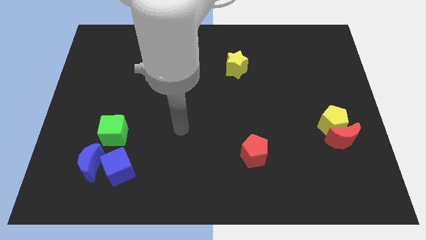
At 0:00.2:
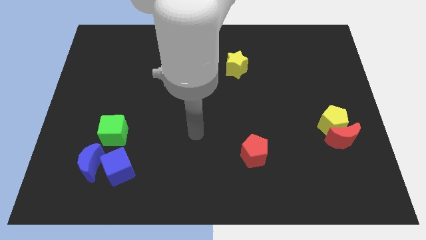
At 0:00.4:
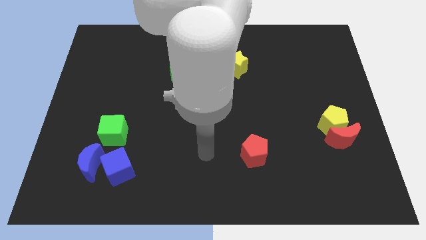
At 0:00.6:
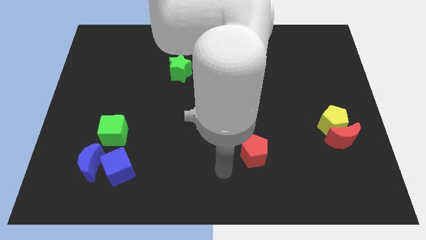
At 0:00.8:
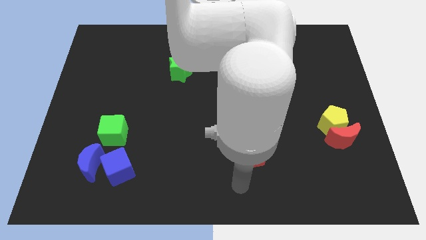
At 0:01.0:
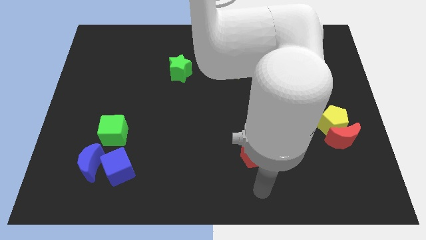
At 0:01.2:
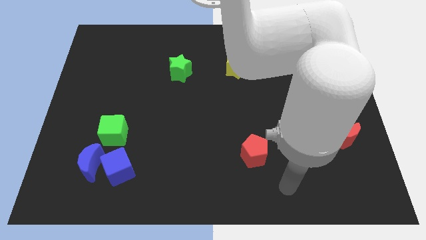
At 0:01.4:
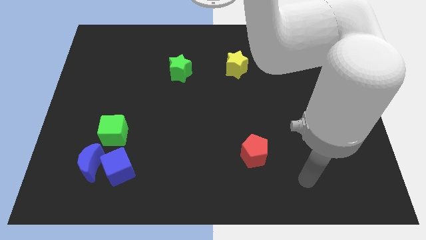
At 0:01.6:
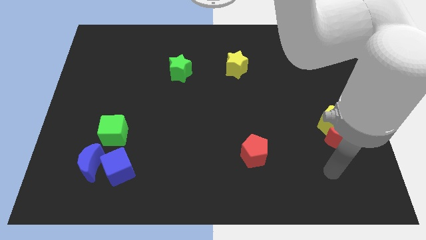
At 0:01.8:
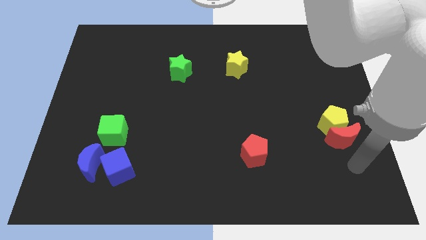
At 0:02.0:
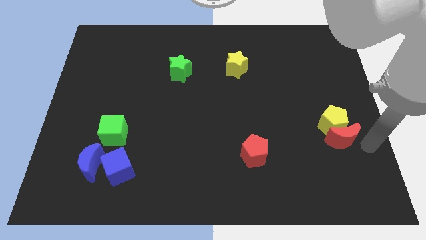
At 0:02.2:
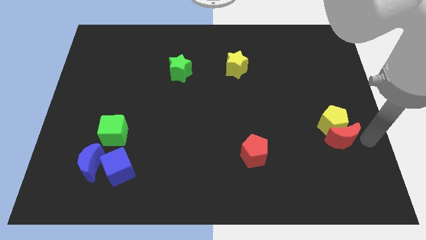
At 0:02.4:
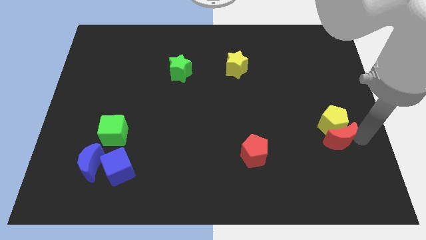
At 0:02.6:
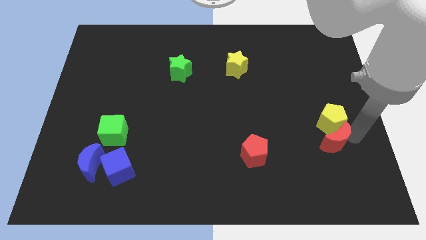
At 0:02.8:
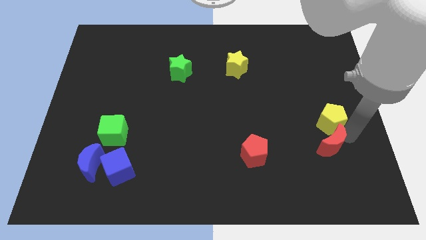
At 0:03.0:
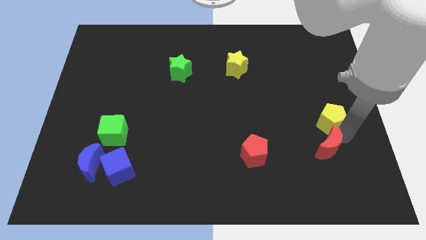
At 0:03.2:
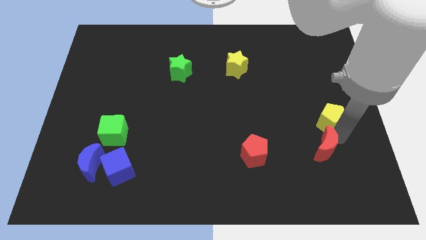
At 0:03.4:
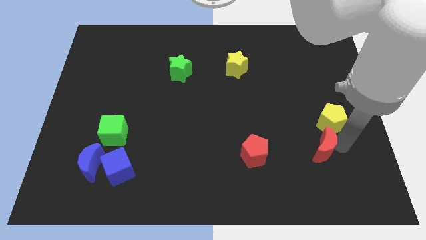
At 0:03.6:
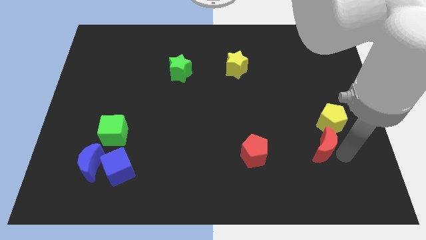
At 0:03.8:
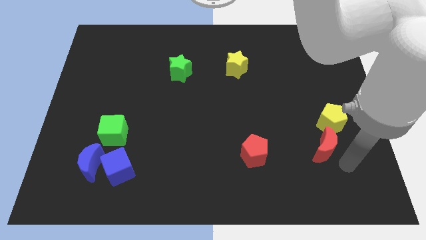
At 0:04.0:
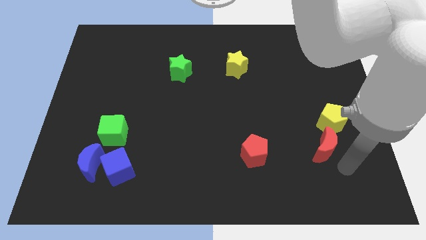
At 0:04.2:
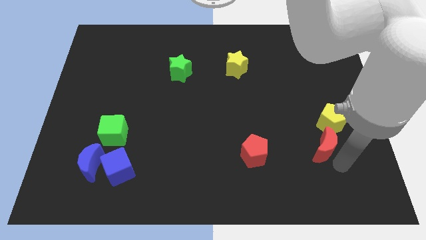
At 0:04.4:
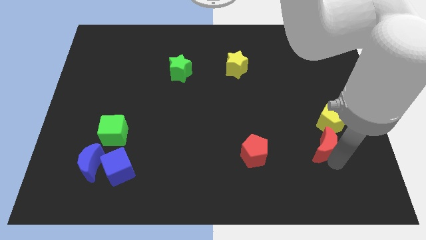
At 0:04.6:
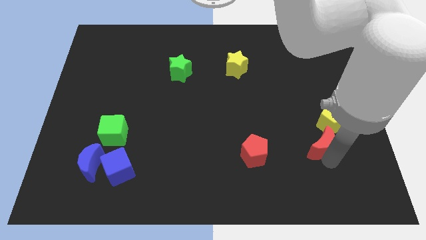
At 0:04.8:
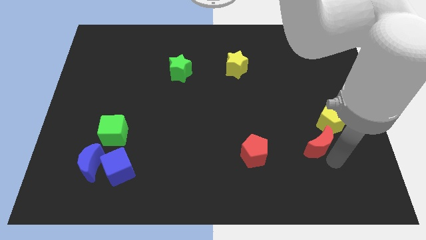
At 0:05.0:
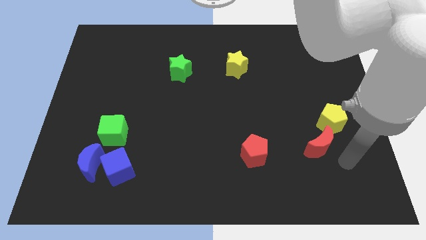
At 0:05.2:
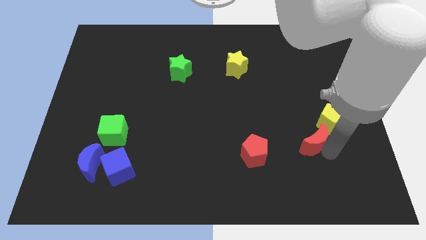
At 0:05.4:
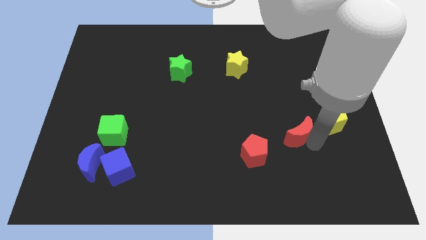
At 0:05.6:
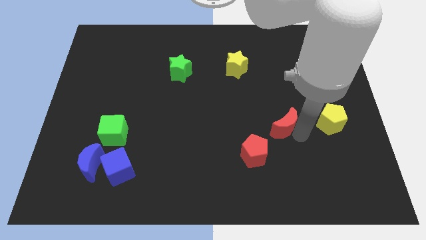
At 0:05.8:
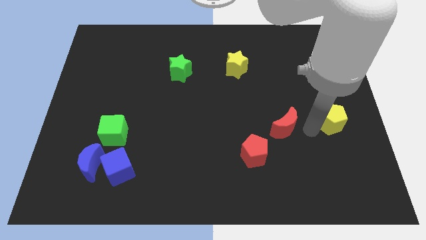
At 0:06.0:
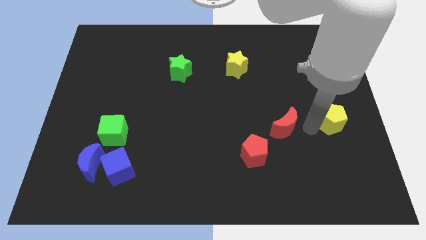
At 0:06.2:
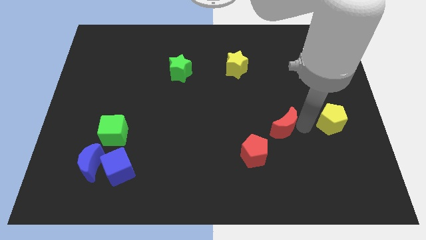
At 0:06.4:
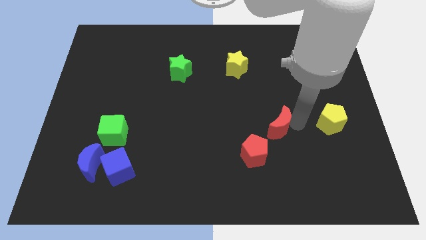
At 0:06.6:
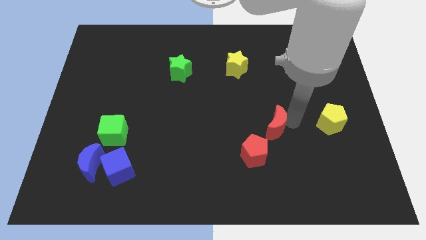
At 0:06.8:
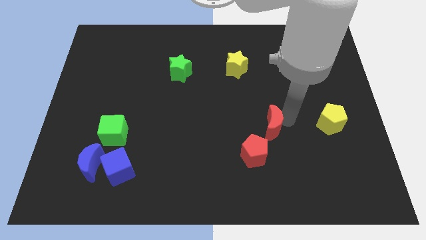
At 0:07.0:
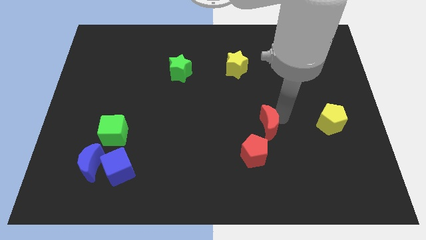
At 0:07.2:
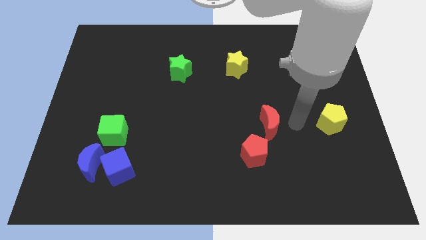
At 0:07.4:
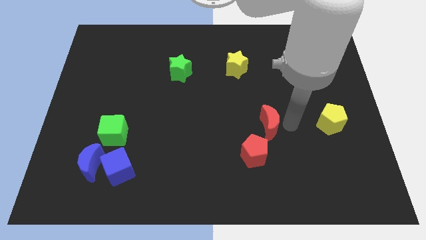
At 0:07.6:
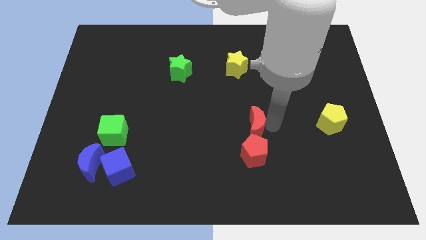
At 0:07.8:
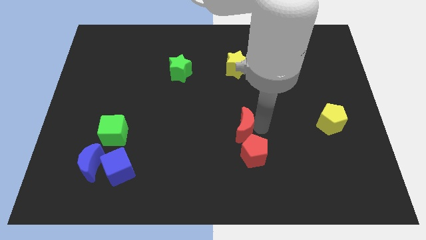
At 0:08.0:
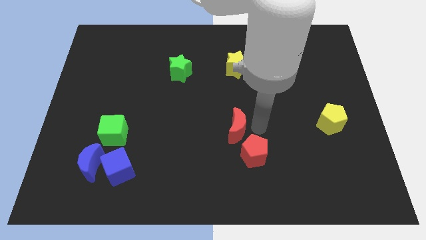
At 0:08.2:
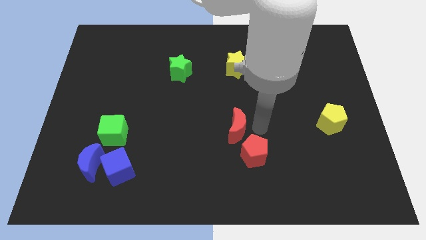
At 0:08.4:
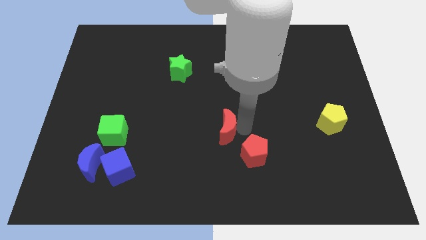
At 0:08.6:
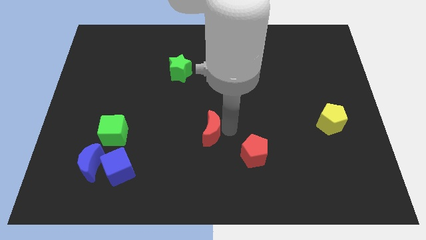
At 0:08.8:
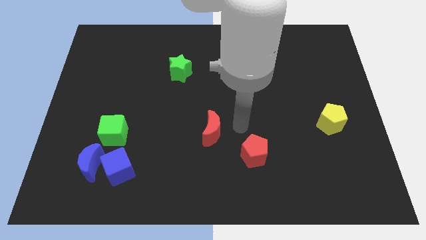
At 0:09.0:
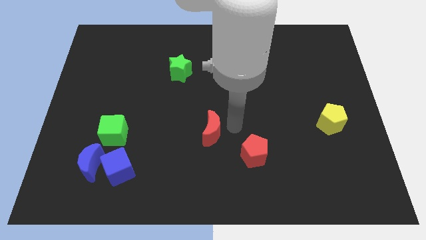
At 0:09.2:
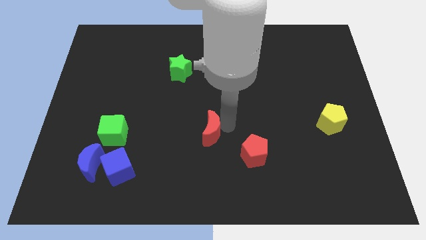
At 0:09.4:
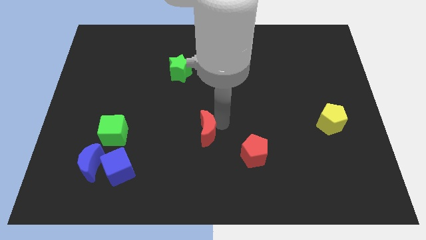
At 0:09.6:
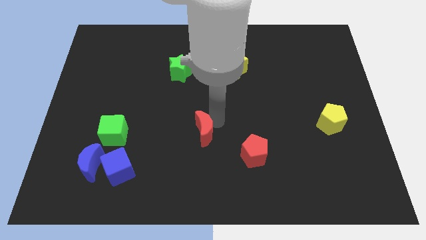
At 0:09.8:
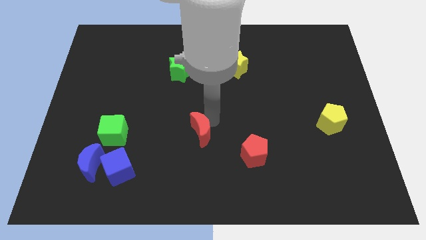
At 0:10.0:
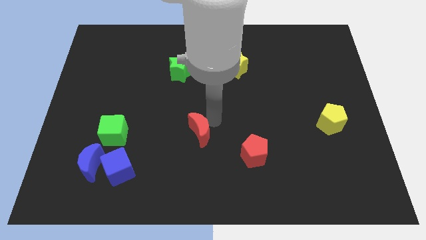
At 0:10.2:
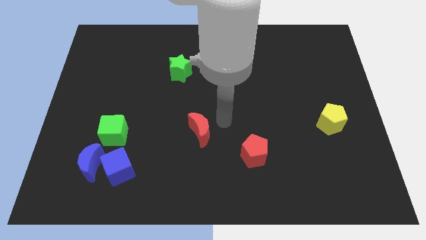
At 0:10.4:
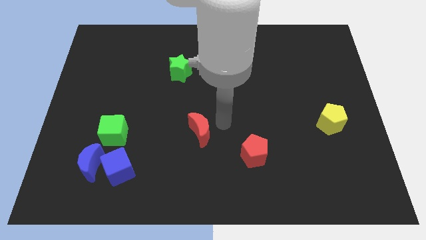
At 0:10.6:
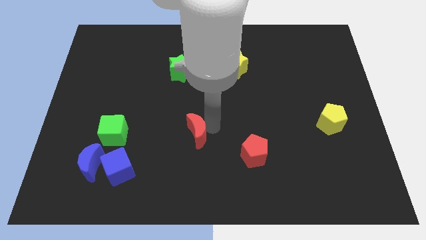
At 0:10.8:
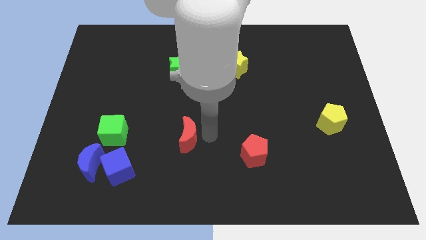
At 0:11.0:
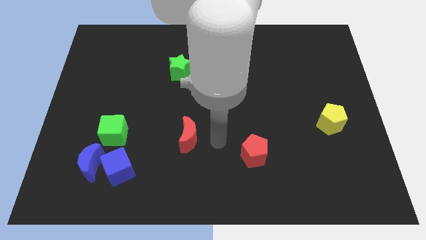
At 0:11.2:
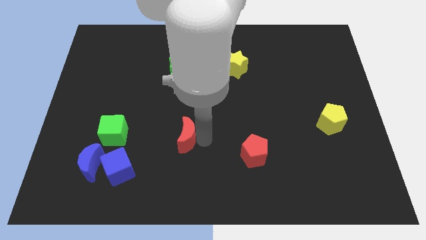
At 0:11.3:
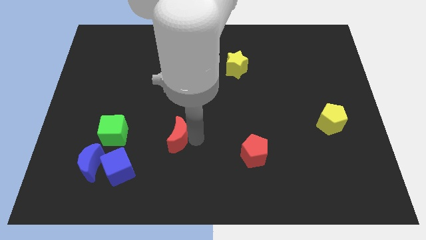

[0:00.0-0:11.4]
push the red moon right of the green cube

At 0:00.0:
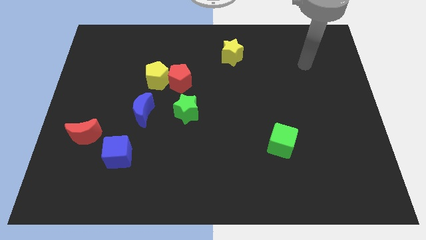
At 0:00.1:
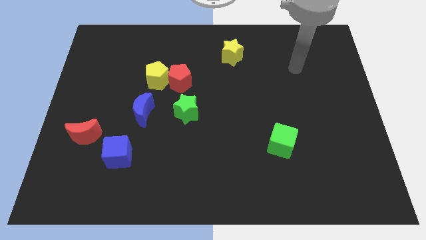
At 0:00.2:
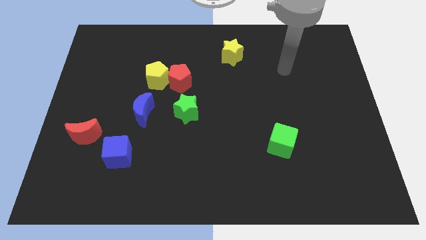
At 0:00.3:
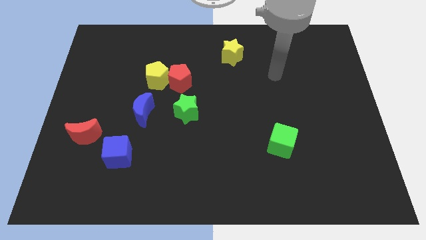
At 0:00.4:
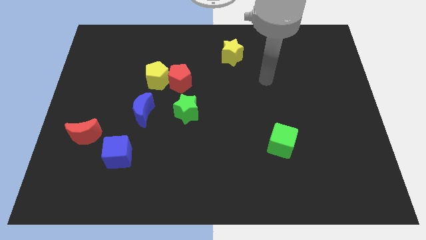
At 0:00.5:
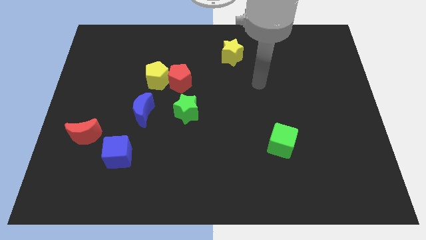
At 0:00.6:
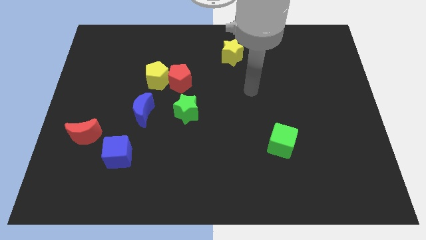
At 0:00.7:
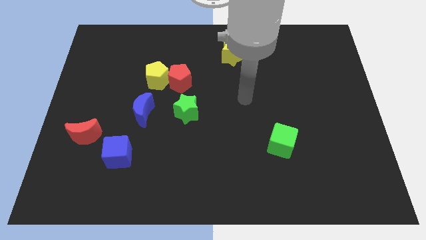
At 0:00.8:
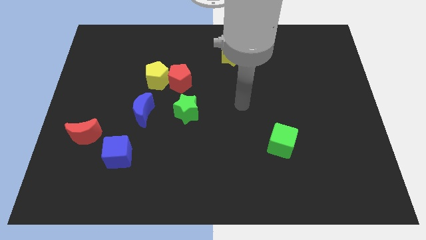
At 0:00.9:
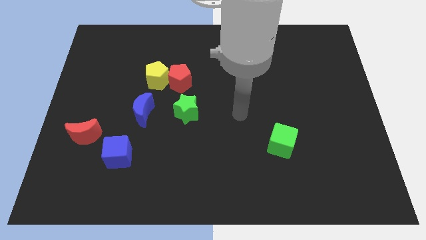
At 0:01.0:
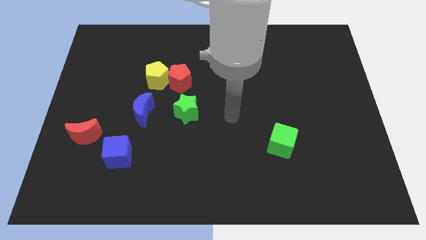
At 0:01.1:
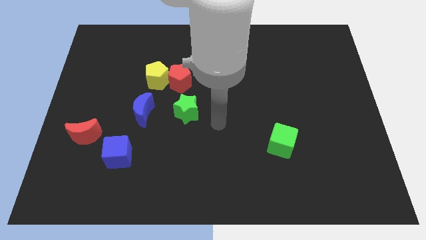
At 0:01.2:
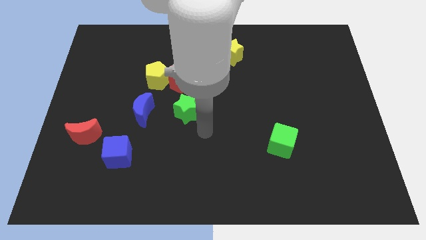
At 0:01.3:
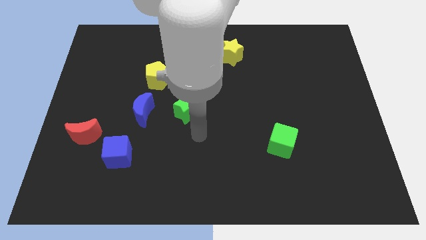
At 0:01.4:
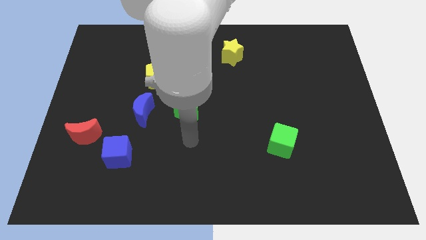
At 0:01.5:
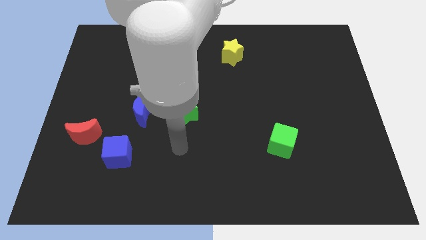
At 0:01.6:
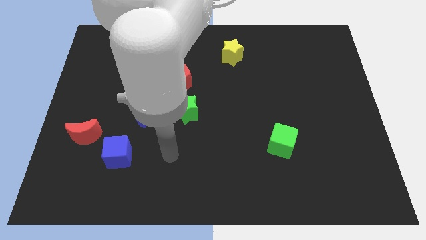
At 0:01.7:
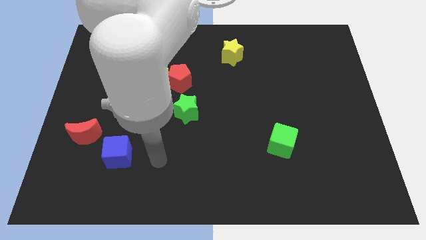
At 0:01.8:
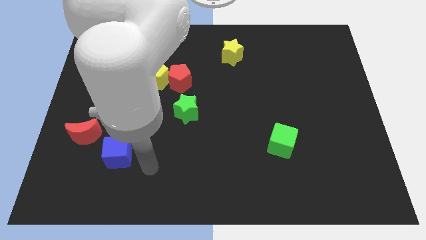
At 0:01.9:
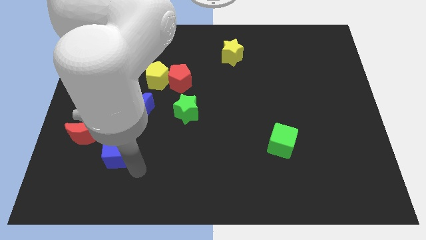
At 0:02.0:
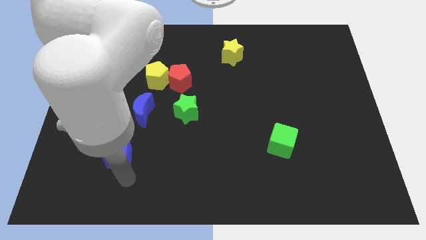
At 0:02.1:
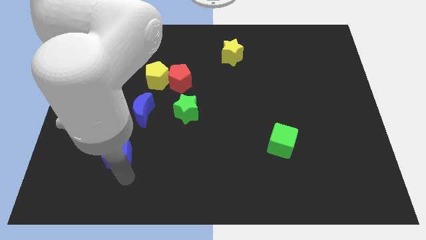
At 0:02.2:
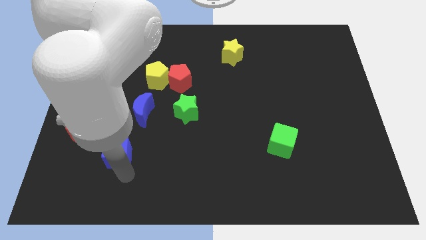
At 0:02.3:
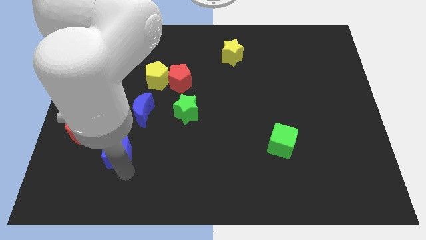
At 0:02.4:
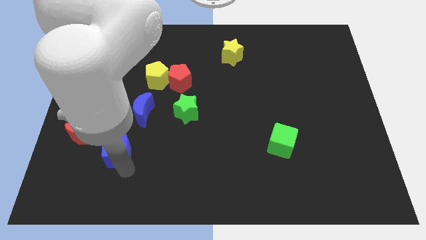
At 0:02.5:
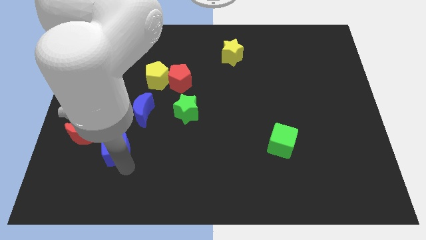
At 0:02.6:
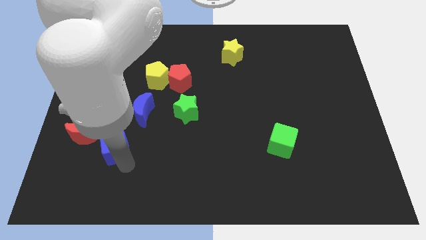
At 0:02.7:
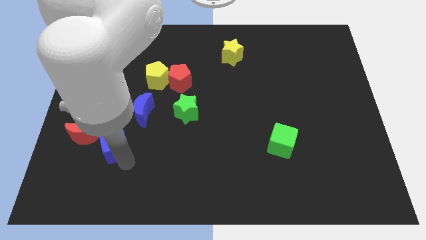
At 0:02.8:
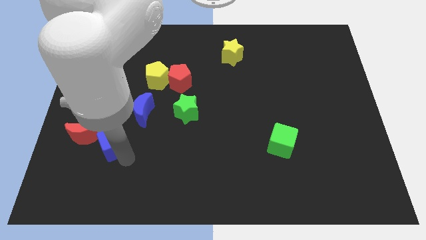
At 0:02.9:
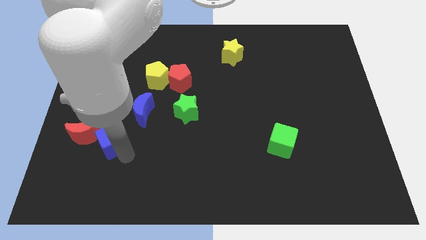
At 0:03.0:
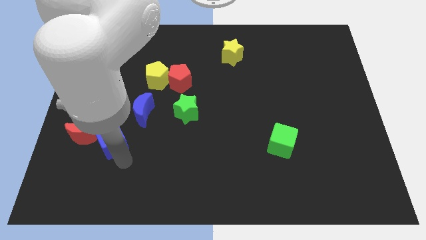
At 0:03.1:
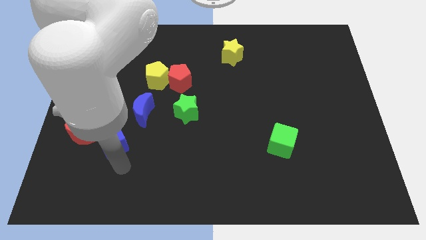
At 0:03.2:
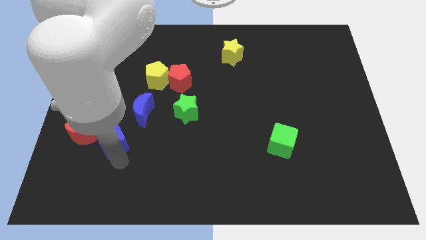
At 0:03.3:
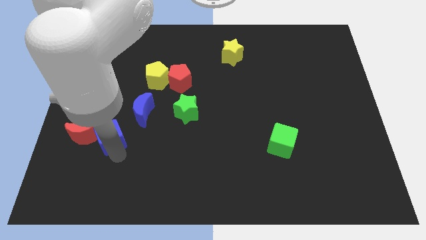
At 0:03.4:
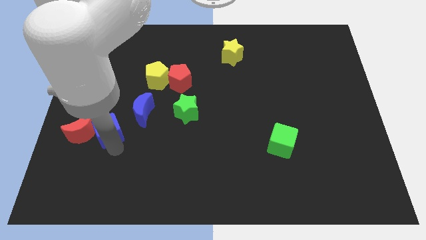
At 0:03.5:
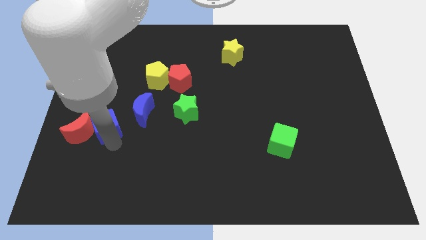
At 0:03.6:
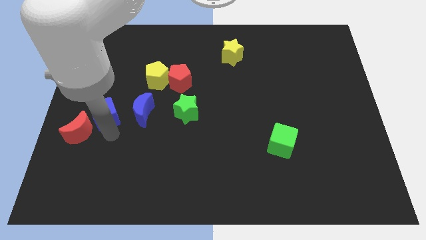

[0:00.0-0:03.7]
put the blue cube to the top side of the red moon
